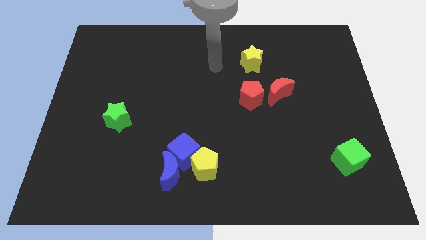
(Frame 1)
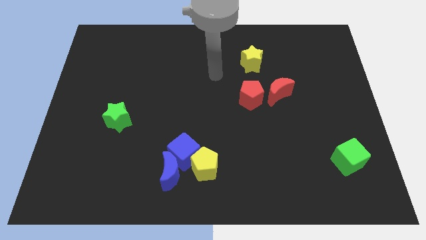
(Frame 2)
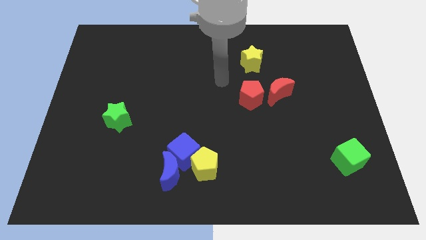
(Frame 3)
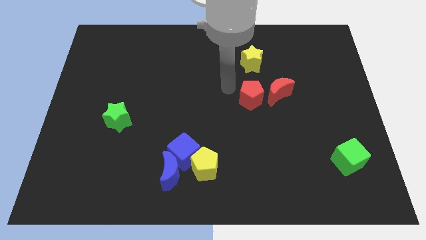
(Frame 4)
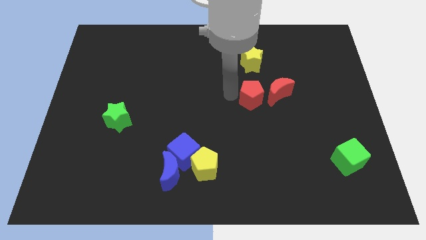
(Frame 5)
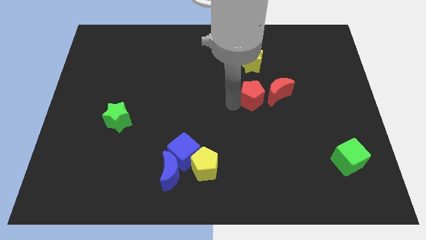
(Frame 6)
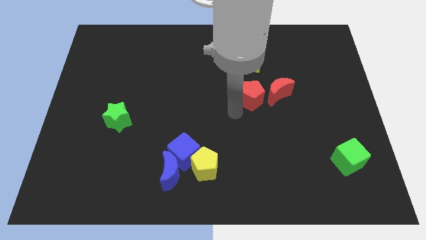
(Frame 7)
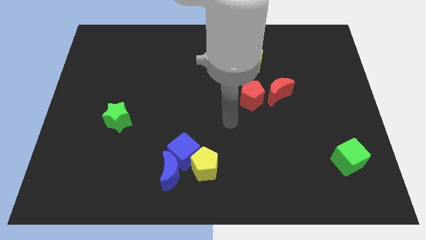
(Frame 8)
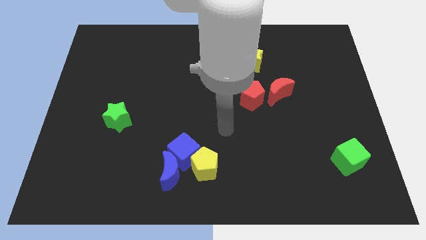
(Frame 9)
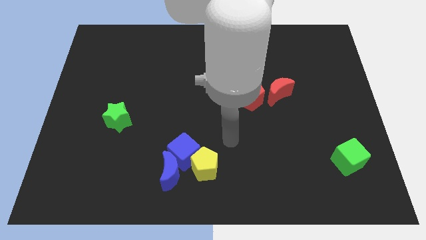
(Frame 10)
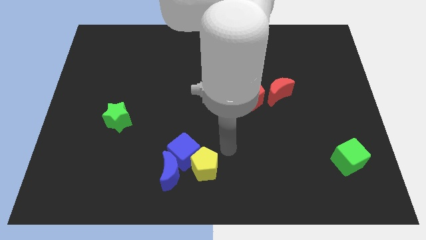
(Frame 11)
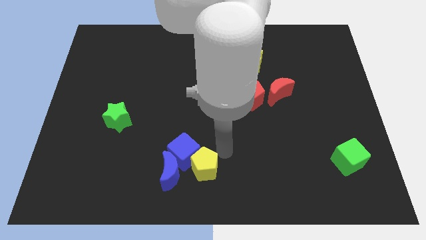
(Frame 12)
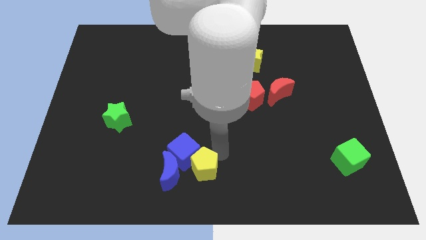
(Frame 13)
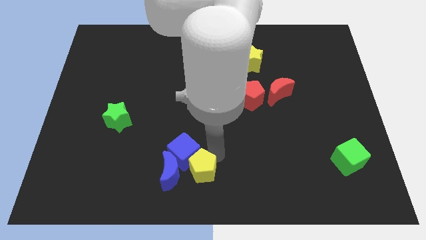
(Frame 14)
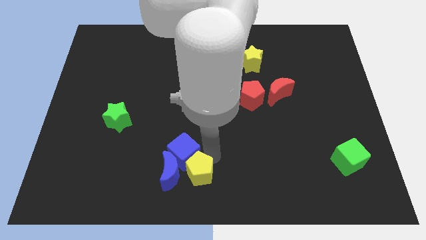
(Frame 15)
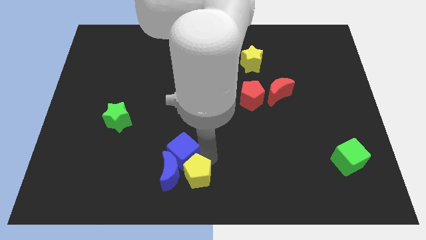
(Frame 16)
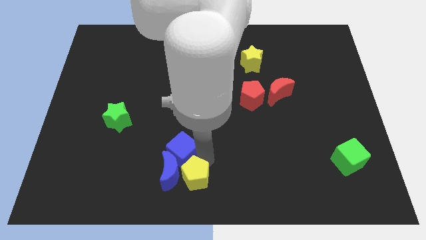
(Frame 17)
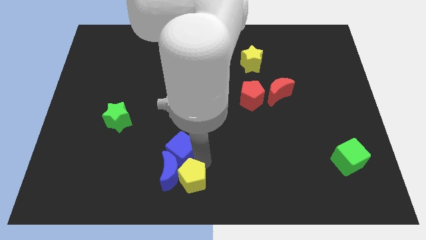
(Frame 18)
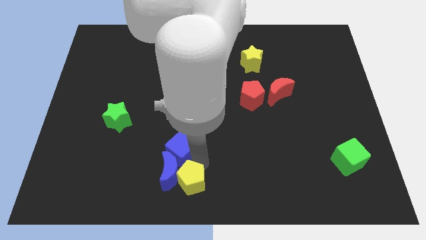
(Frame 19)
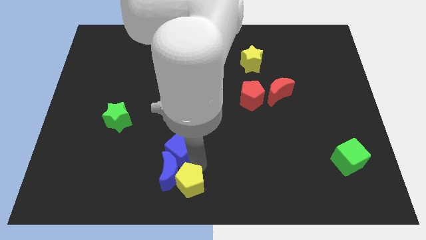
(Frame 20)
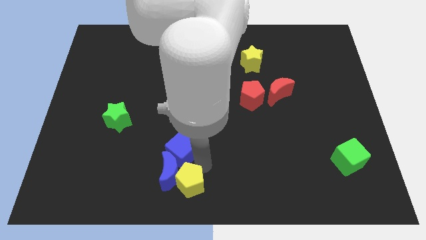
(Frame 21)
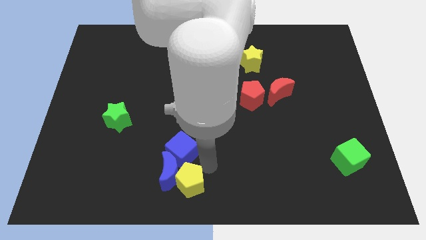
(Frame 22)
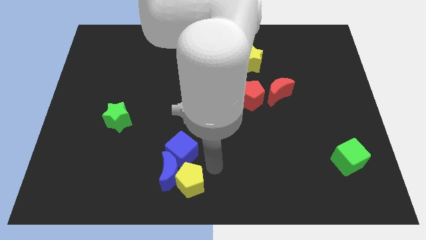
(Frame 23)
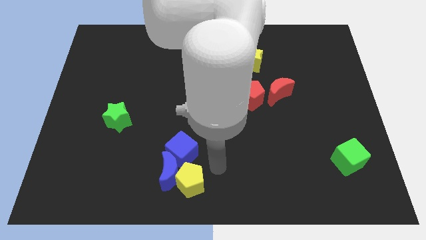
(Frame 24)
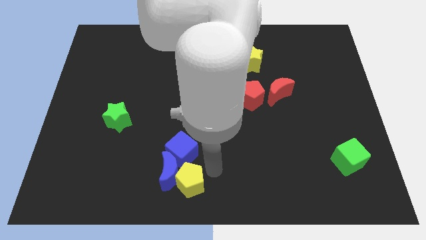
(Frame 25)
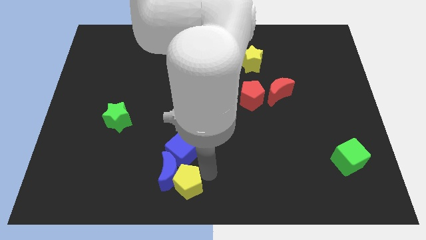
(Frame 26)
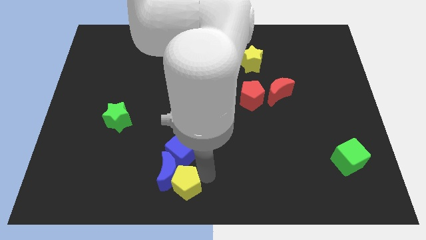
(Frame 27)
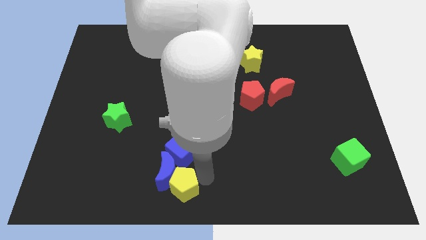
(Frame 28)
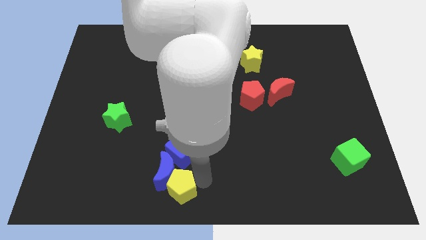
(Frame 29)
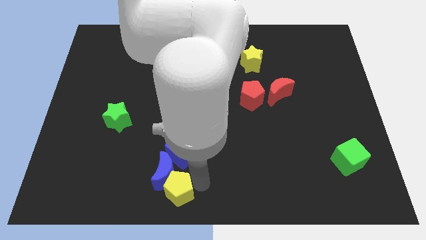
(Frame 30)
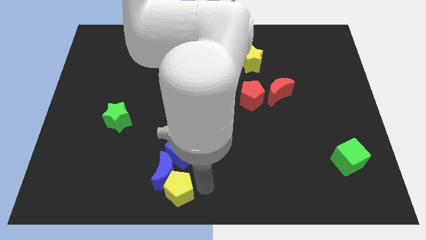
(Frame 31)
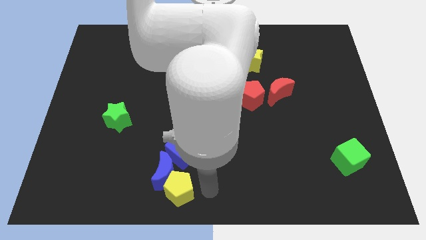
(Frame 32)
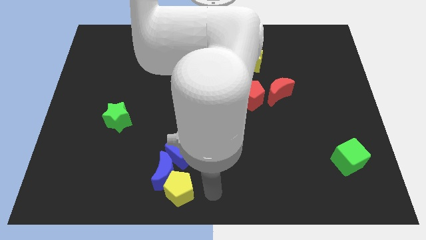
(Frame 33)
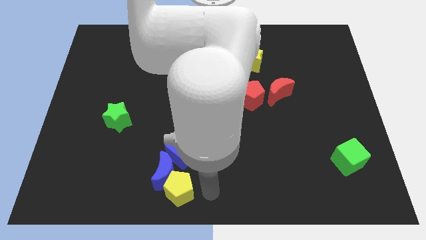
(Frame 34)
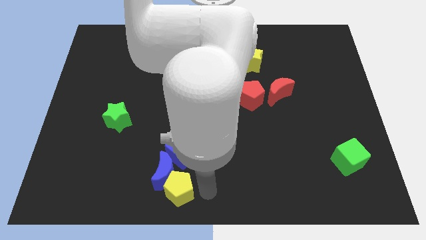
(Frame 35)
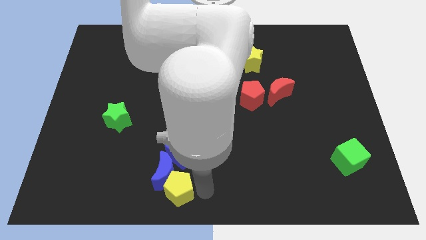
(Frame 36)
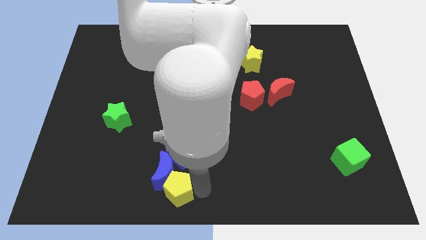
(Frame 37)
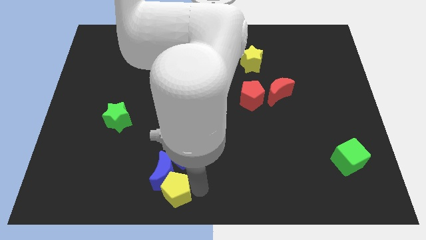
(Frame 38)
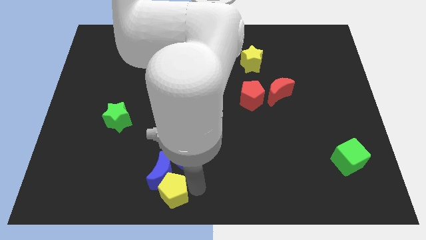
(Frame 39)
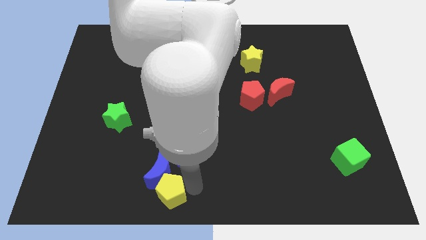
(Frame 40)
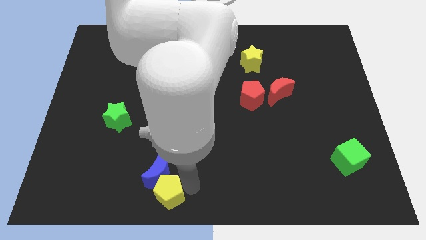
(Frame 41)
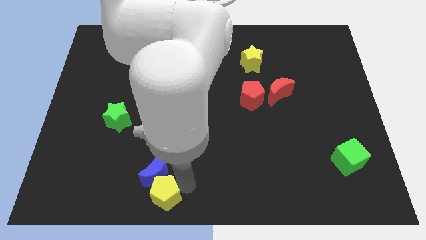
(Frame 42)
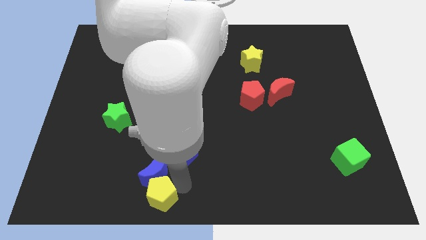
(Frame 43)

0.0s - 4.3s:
slightly slide the yellow pentagon to the left

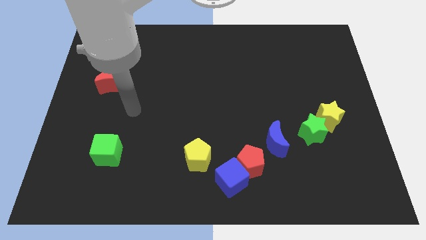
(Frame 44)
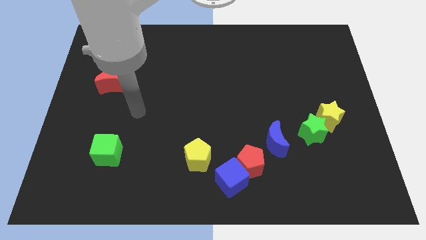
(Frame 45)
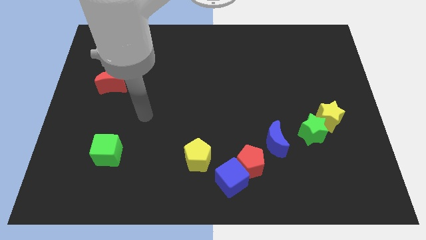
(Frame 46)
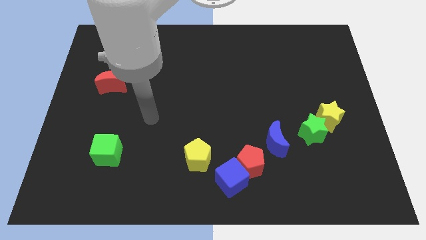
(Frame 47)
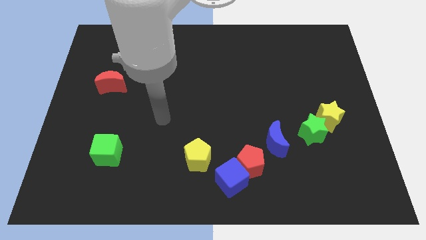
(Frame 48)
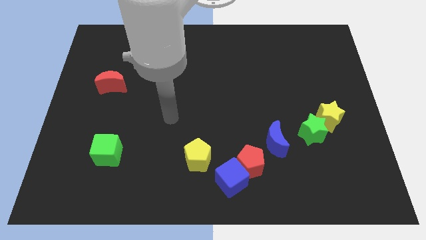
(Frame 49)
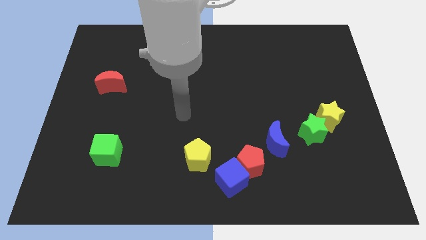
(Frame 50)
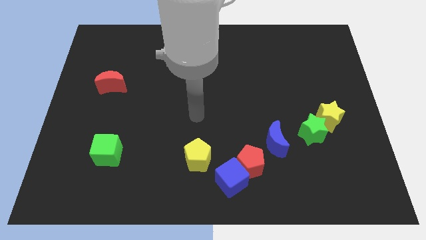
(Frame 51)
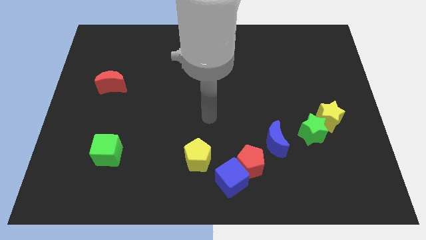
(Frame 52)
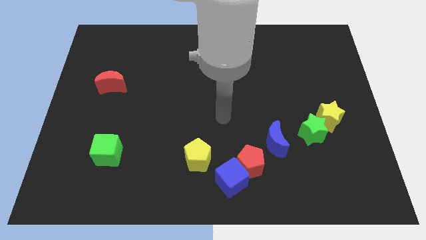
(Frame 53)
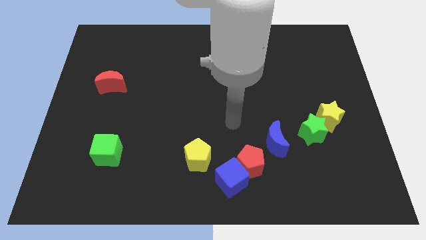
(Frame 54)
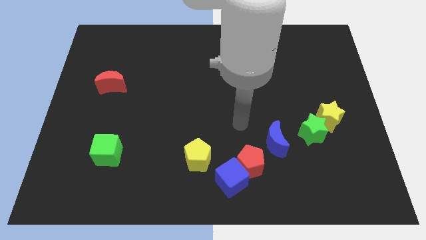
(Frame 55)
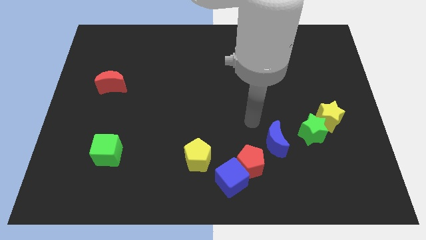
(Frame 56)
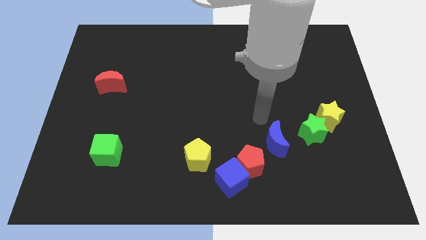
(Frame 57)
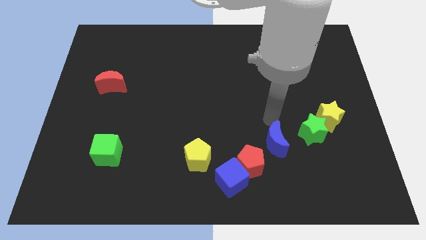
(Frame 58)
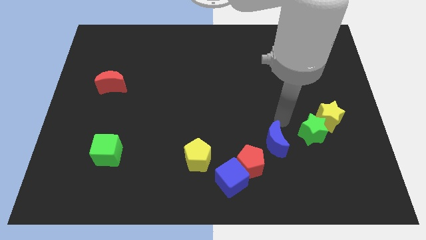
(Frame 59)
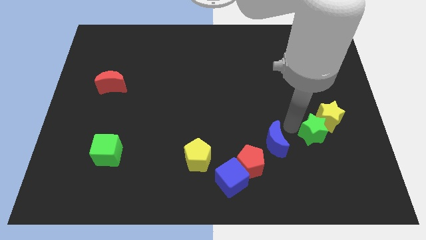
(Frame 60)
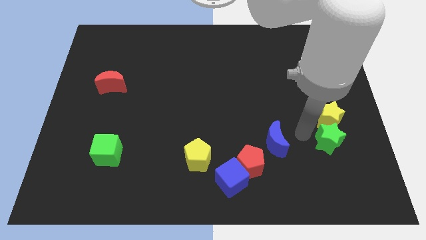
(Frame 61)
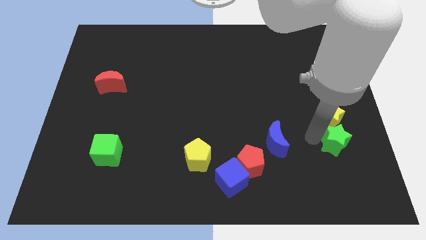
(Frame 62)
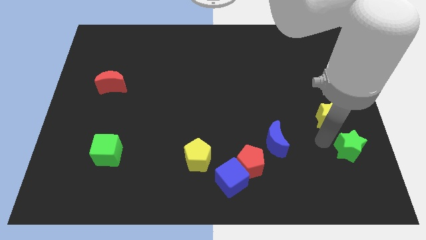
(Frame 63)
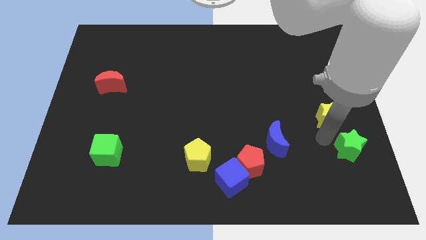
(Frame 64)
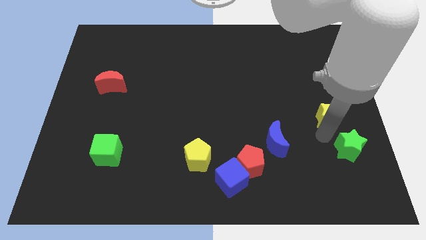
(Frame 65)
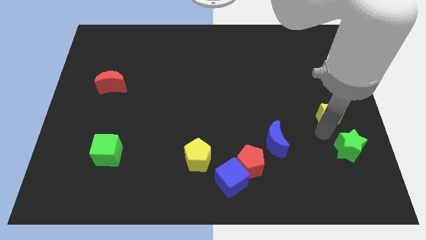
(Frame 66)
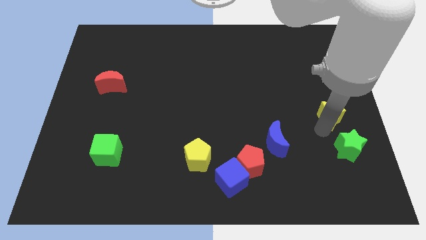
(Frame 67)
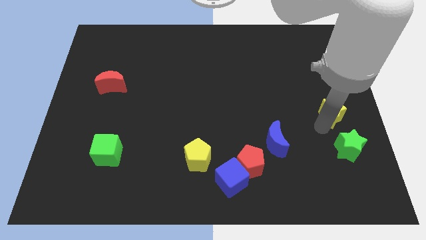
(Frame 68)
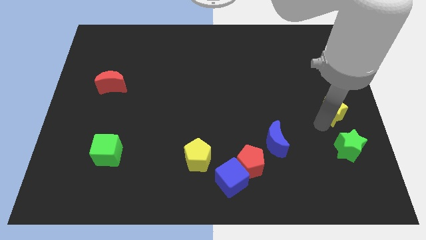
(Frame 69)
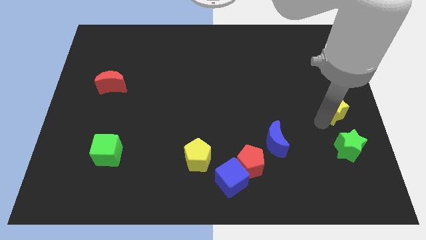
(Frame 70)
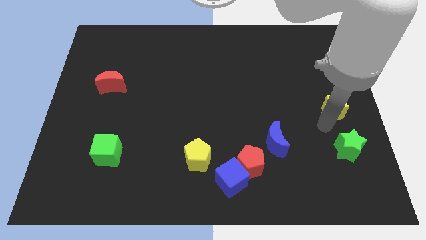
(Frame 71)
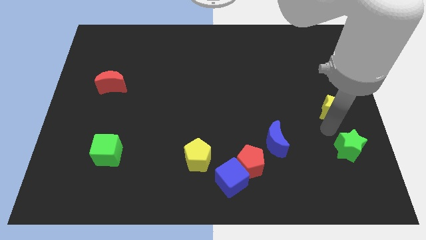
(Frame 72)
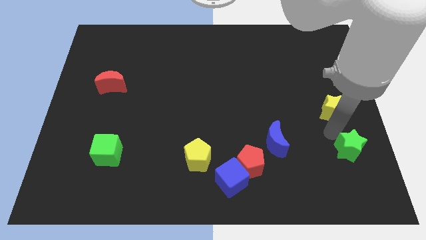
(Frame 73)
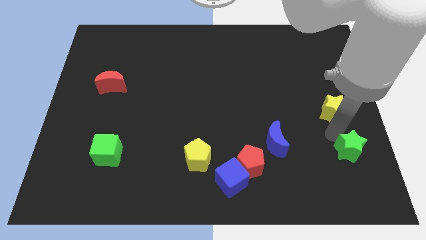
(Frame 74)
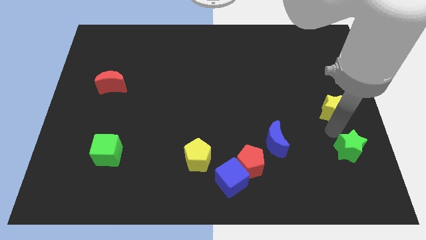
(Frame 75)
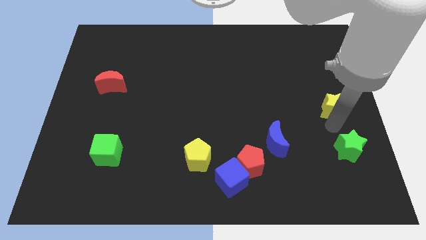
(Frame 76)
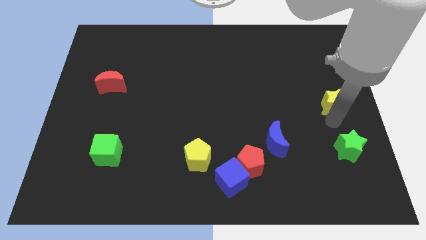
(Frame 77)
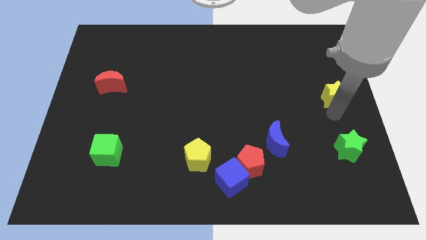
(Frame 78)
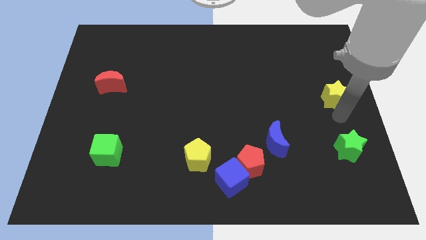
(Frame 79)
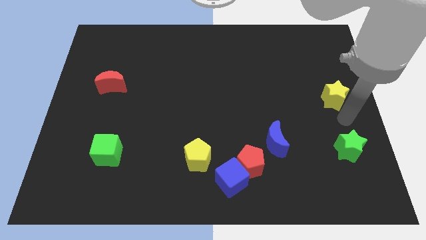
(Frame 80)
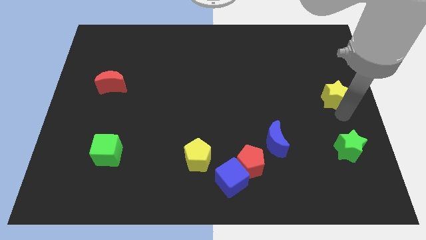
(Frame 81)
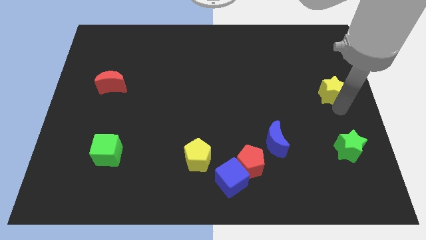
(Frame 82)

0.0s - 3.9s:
slide the yellow star upwards a little
